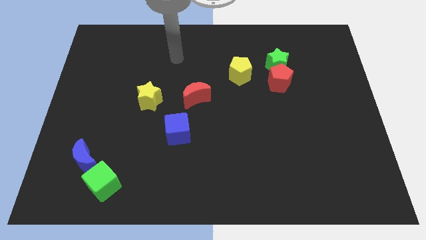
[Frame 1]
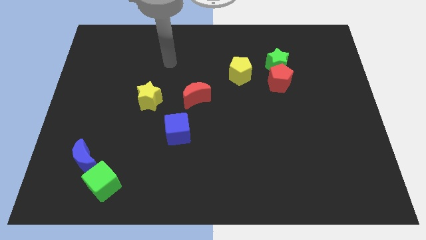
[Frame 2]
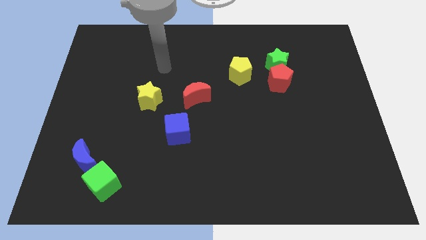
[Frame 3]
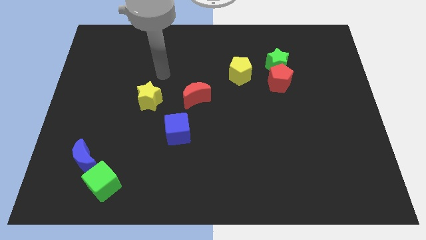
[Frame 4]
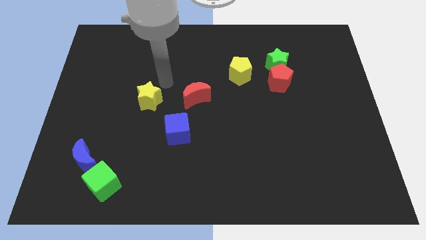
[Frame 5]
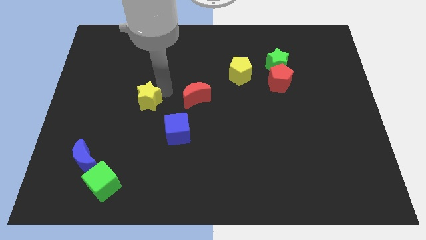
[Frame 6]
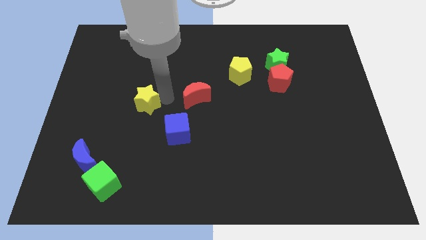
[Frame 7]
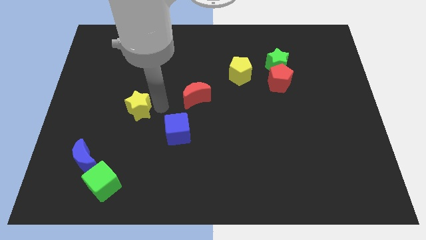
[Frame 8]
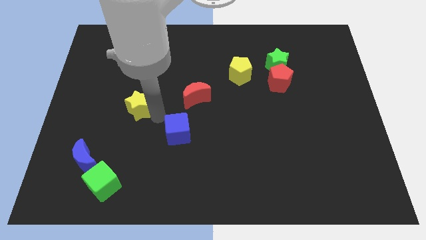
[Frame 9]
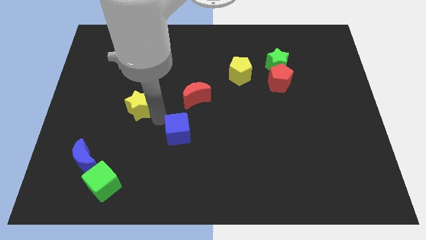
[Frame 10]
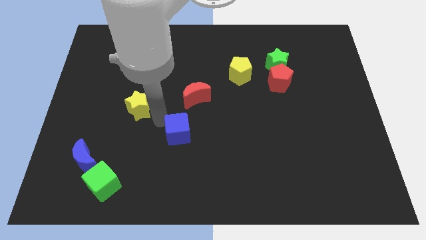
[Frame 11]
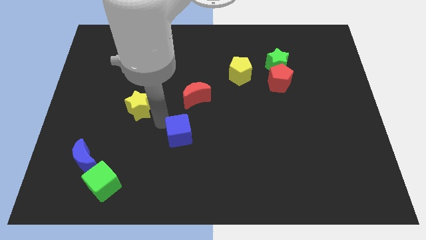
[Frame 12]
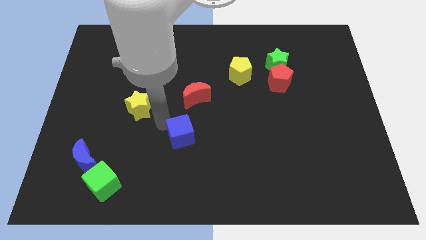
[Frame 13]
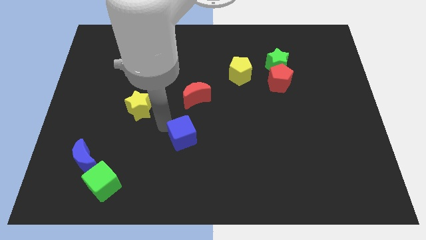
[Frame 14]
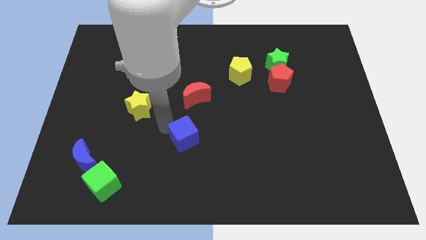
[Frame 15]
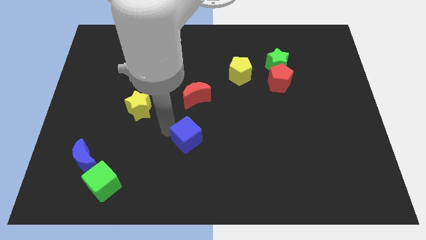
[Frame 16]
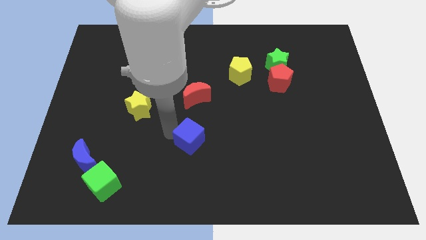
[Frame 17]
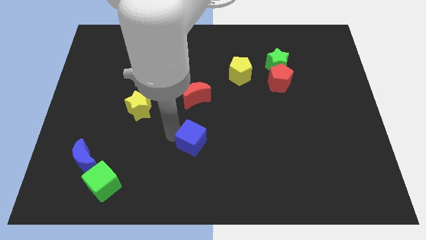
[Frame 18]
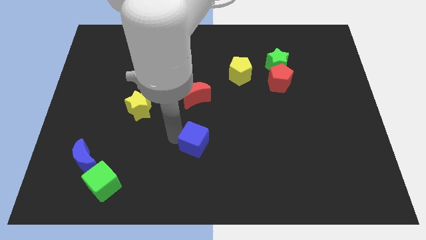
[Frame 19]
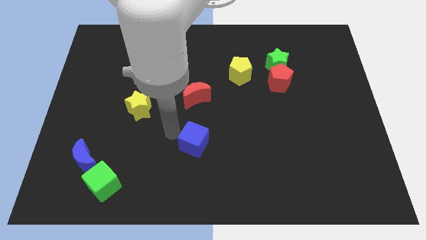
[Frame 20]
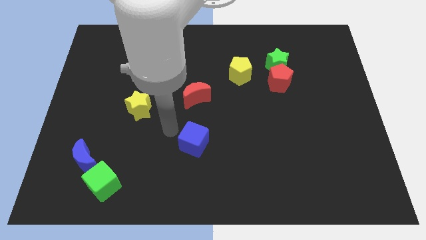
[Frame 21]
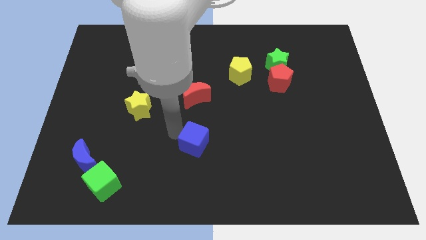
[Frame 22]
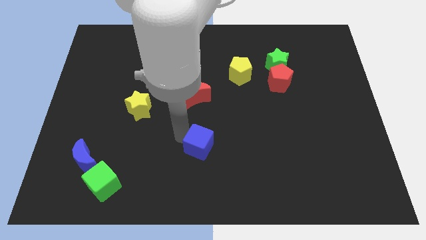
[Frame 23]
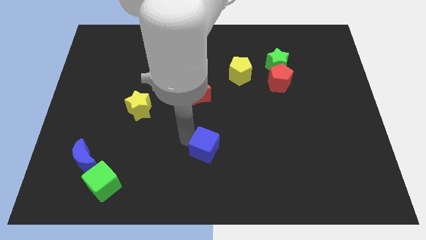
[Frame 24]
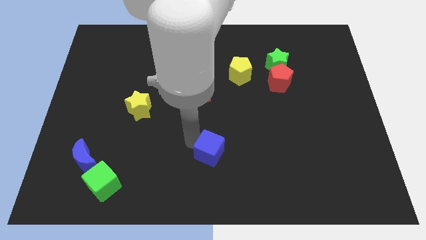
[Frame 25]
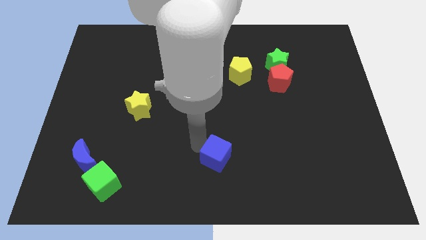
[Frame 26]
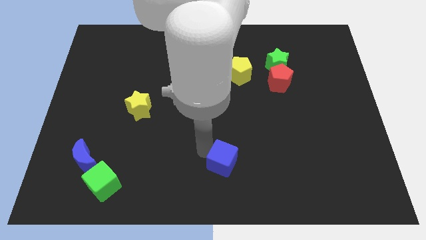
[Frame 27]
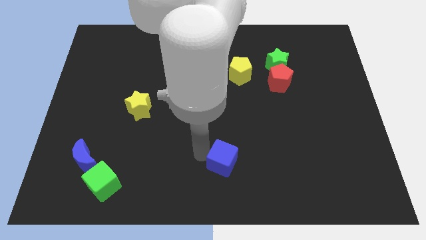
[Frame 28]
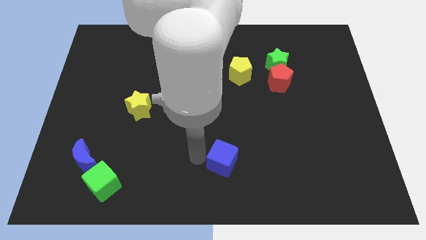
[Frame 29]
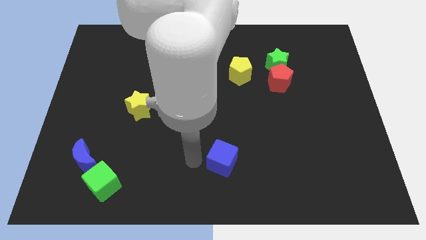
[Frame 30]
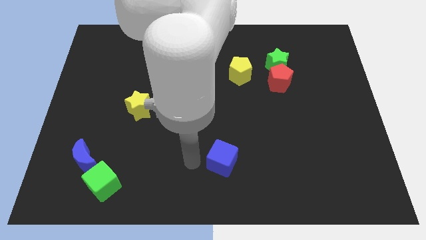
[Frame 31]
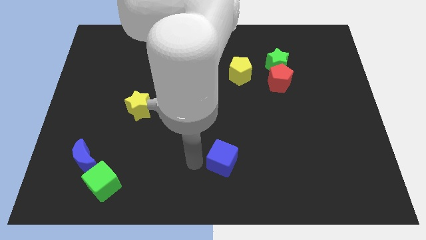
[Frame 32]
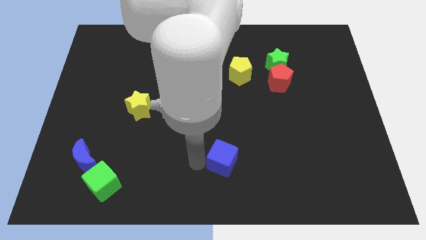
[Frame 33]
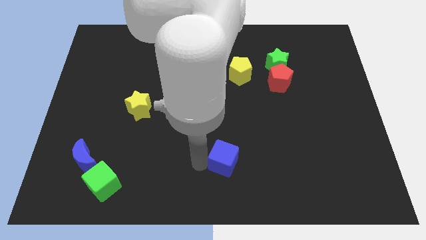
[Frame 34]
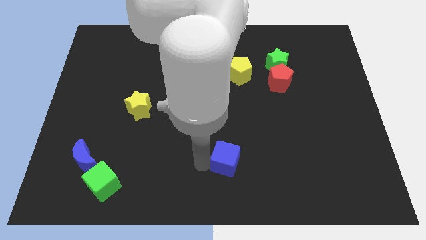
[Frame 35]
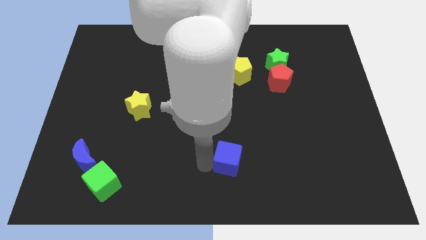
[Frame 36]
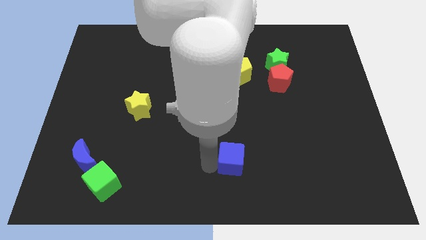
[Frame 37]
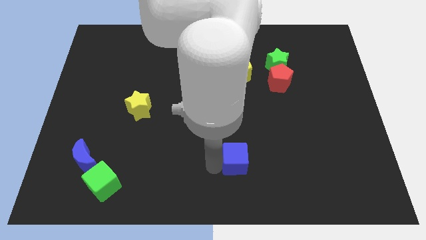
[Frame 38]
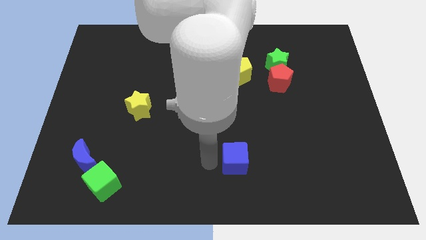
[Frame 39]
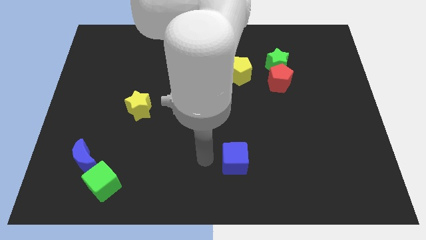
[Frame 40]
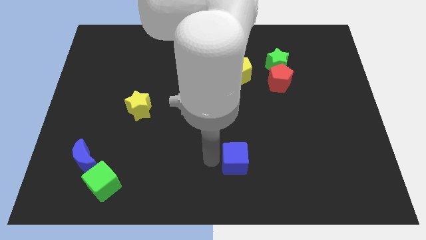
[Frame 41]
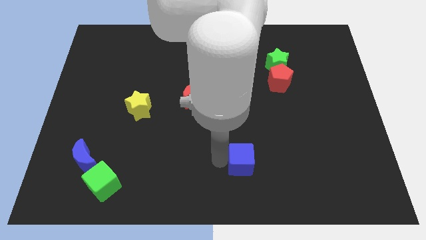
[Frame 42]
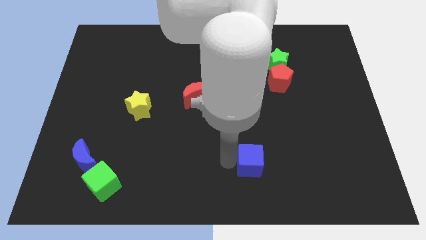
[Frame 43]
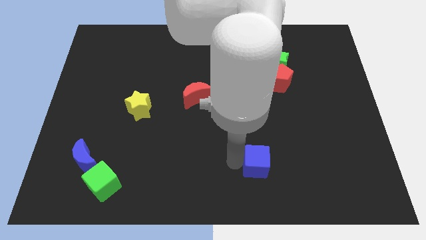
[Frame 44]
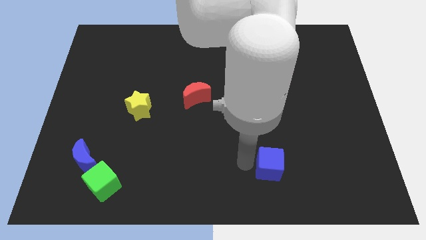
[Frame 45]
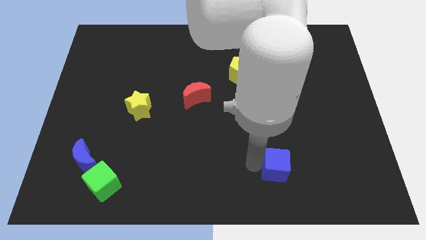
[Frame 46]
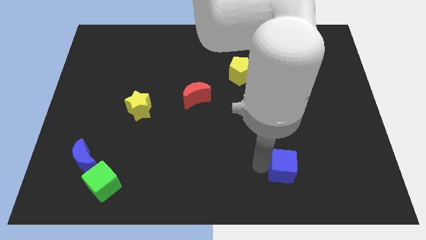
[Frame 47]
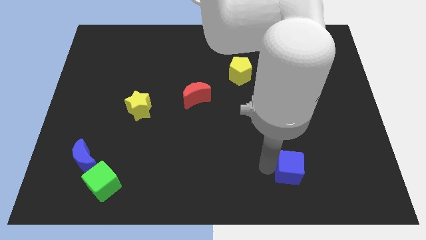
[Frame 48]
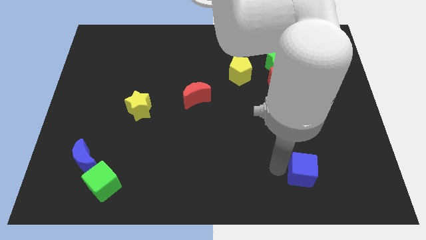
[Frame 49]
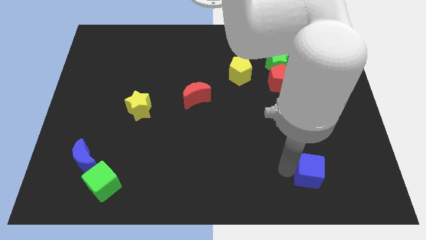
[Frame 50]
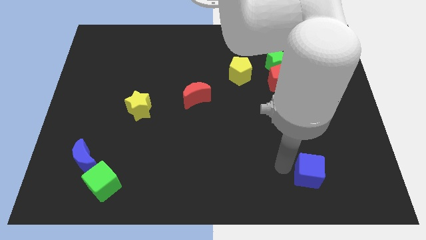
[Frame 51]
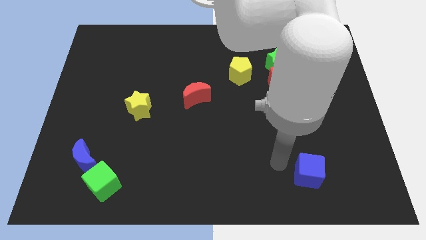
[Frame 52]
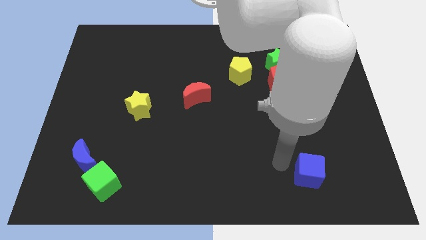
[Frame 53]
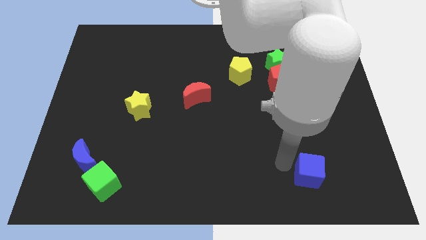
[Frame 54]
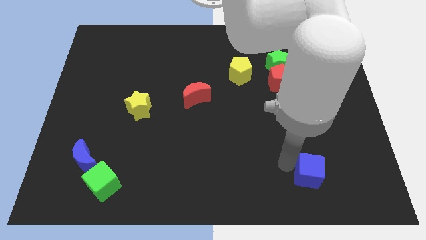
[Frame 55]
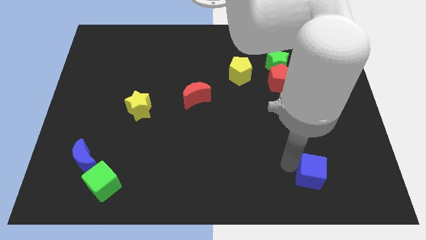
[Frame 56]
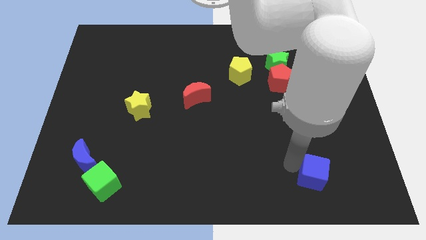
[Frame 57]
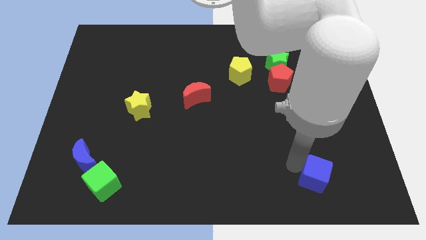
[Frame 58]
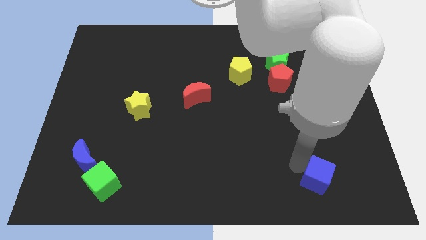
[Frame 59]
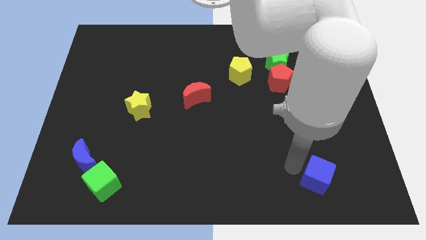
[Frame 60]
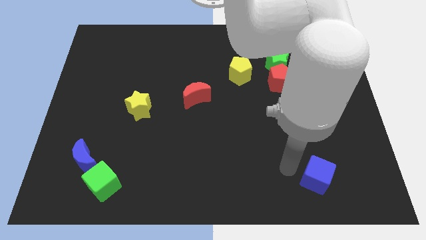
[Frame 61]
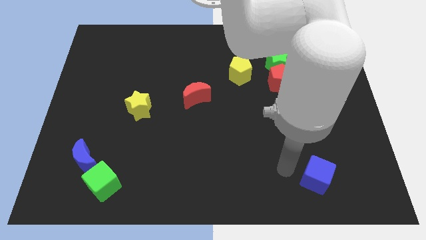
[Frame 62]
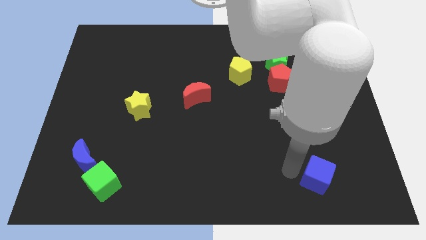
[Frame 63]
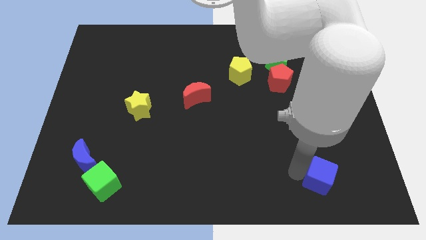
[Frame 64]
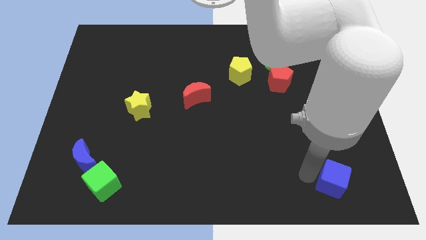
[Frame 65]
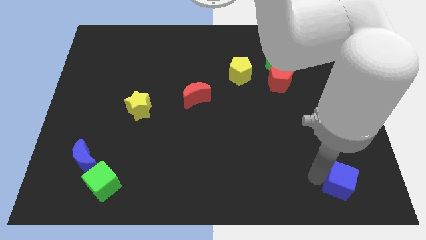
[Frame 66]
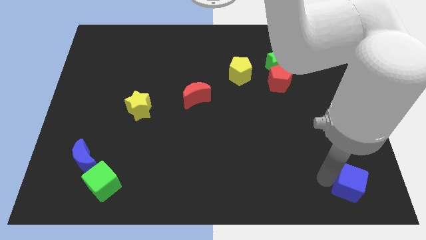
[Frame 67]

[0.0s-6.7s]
slide the blue cube to the bottom right corner
